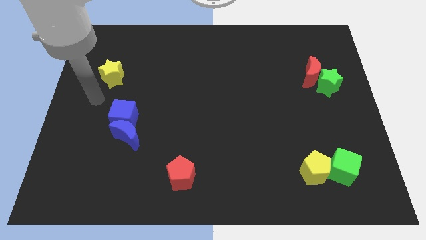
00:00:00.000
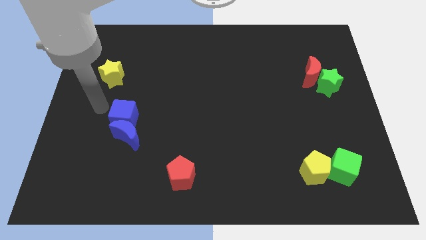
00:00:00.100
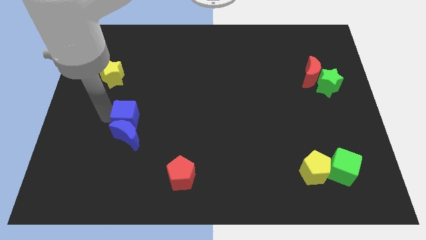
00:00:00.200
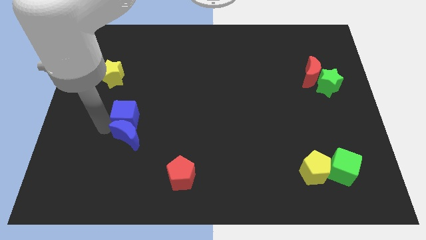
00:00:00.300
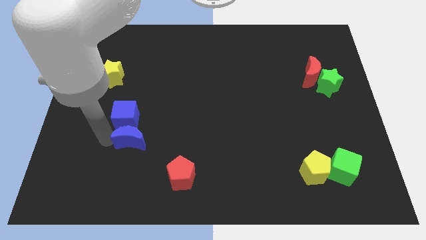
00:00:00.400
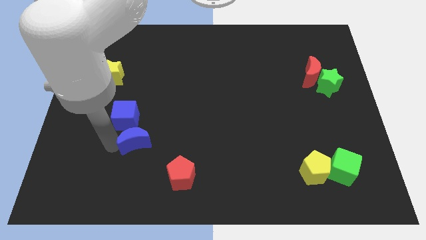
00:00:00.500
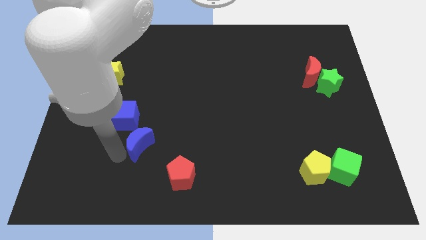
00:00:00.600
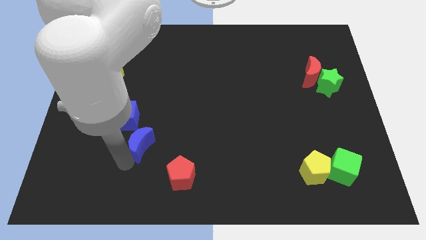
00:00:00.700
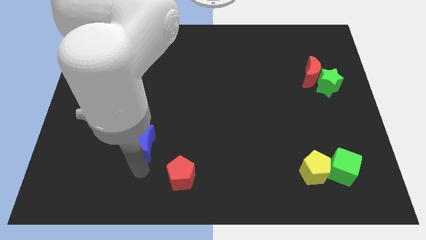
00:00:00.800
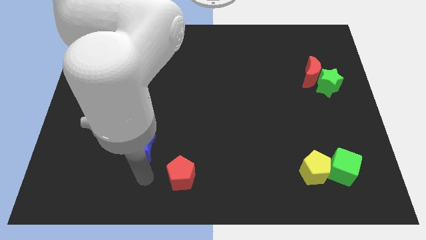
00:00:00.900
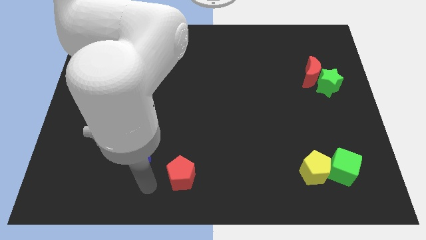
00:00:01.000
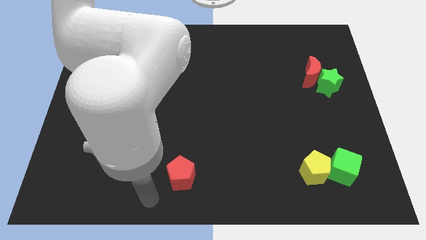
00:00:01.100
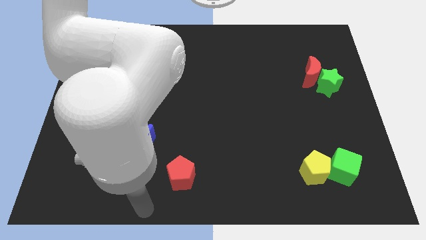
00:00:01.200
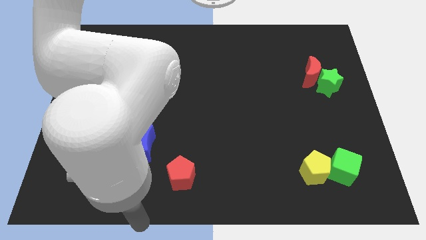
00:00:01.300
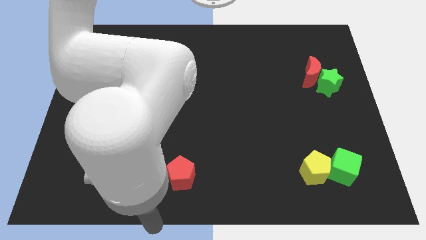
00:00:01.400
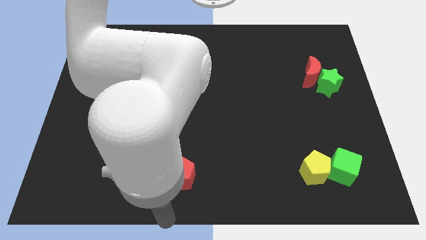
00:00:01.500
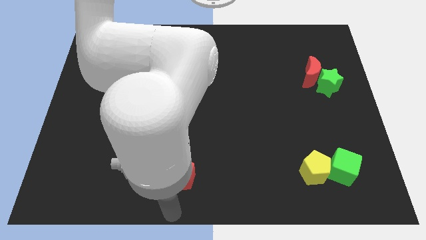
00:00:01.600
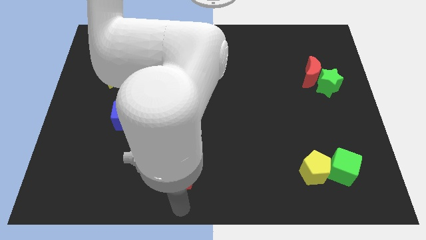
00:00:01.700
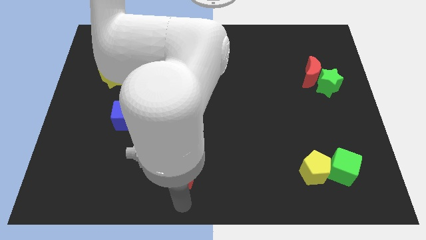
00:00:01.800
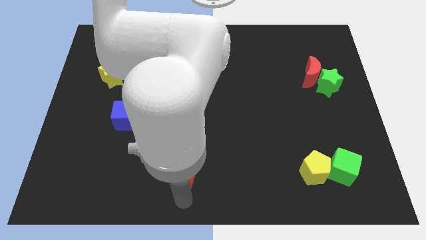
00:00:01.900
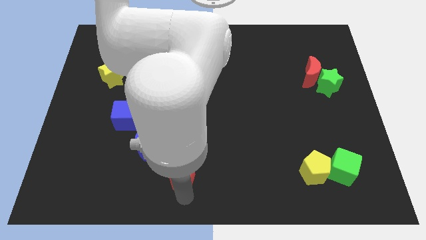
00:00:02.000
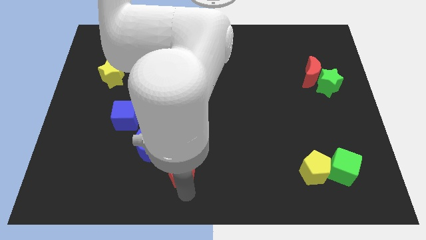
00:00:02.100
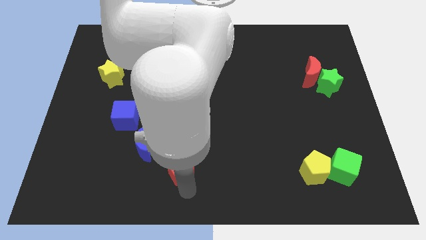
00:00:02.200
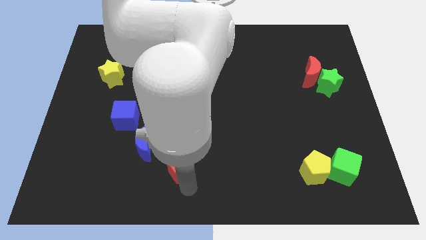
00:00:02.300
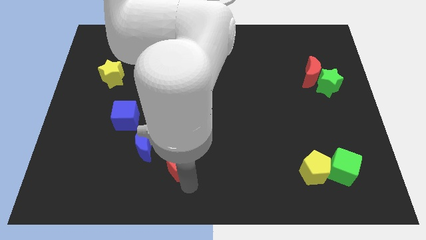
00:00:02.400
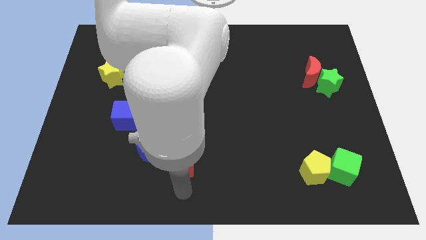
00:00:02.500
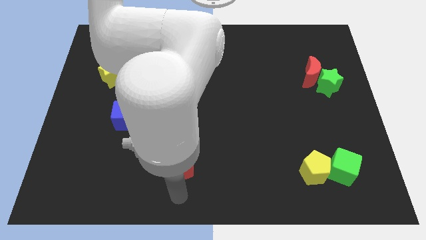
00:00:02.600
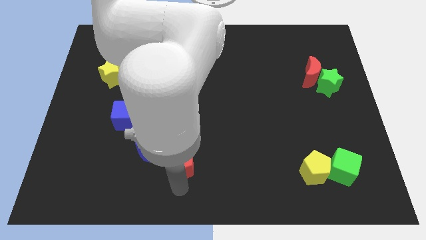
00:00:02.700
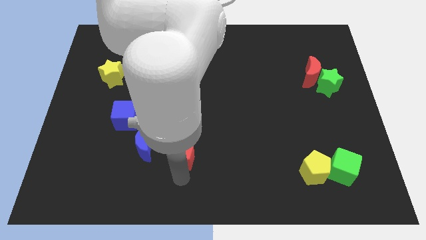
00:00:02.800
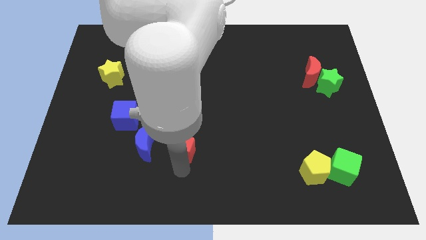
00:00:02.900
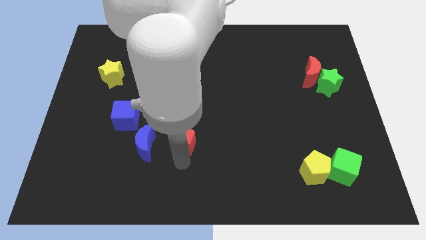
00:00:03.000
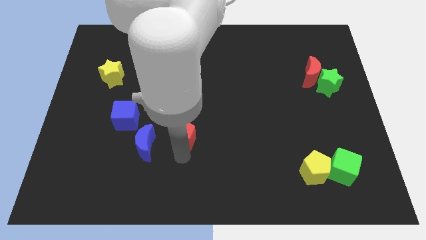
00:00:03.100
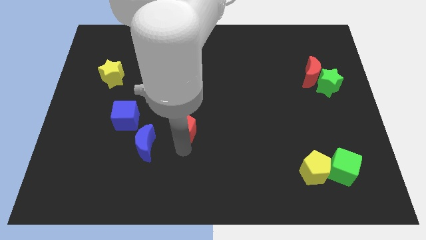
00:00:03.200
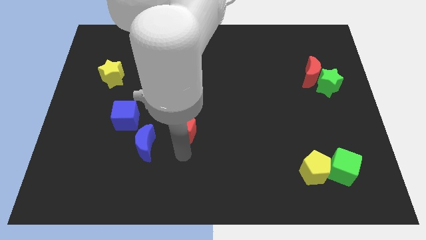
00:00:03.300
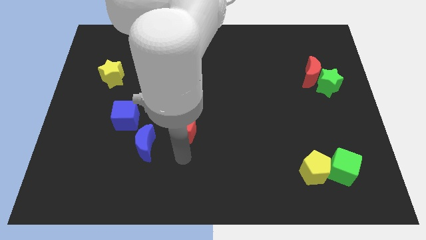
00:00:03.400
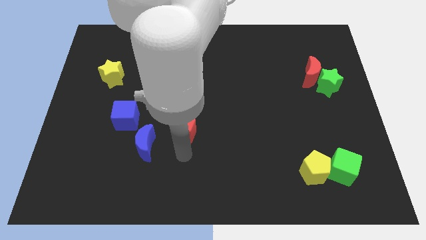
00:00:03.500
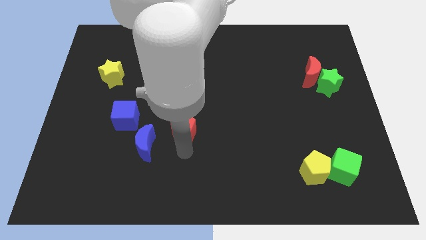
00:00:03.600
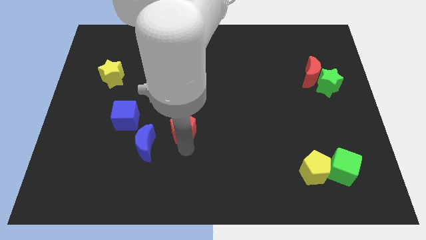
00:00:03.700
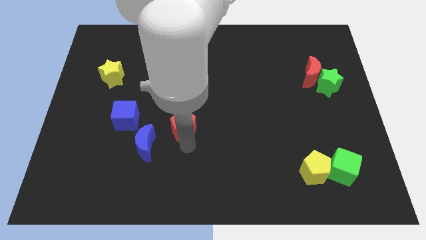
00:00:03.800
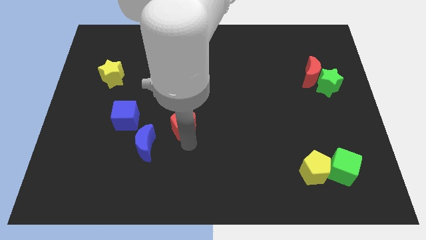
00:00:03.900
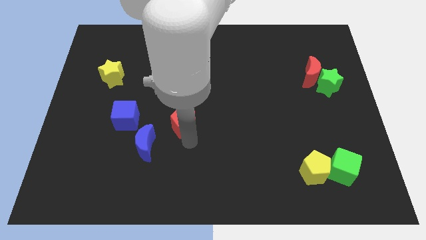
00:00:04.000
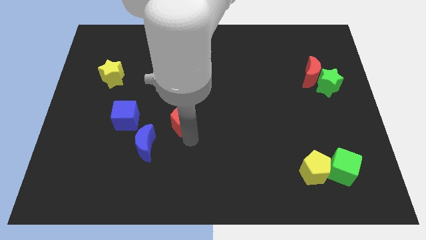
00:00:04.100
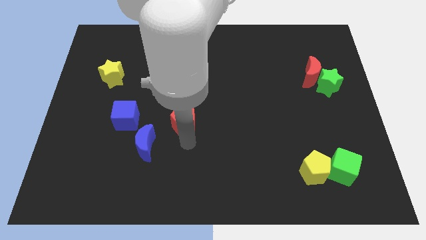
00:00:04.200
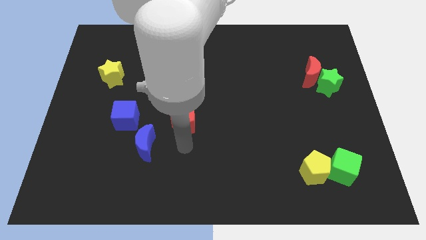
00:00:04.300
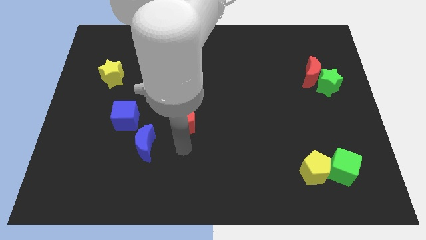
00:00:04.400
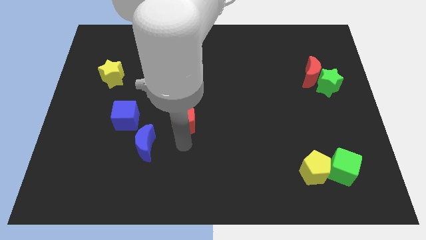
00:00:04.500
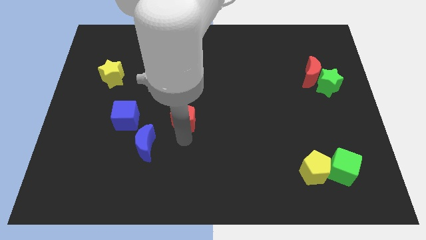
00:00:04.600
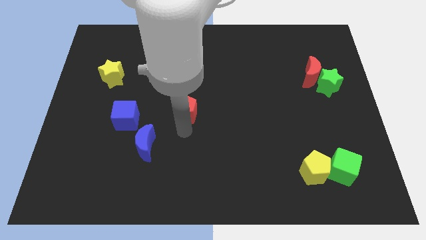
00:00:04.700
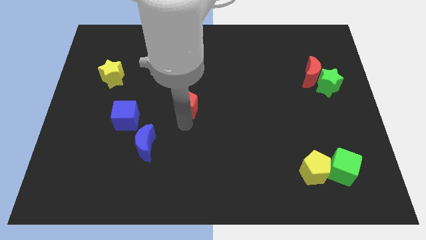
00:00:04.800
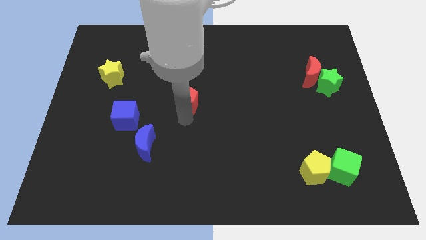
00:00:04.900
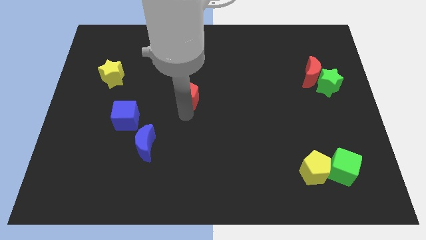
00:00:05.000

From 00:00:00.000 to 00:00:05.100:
push the red pentagon up

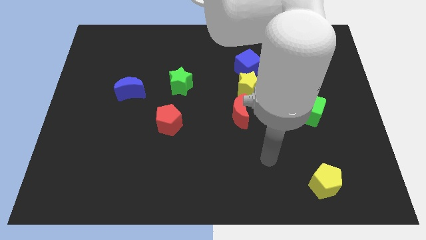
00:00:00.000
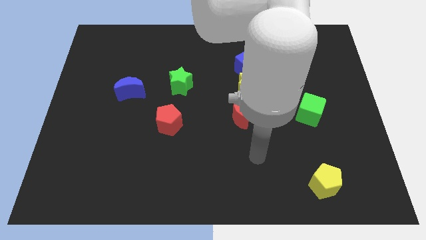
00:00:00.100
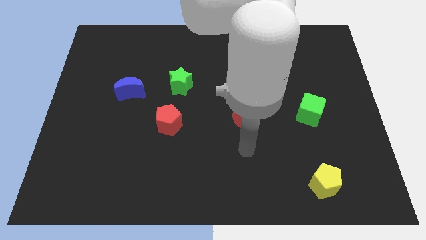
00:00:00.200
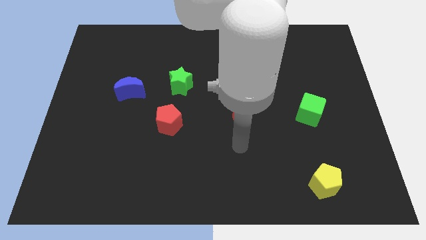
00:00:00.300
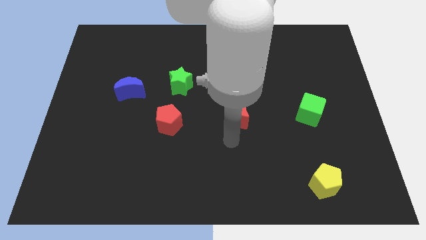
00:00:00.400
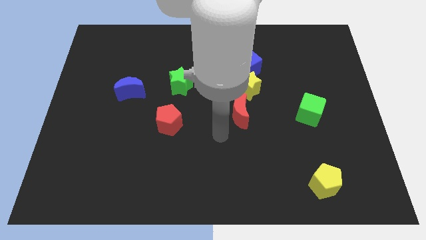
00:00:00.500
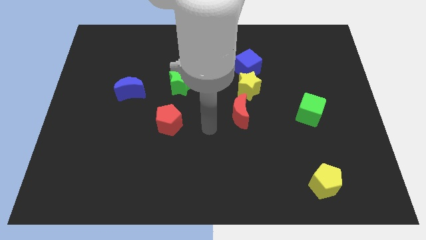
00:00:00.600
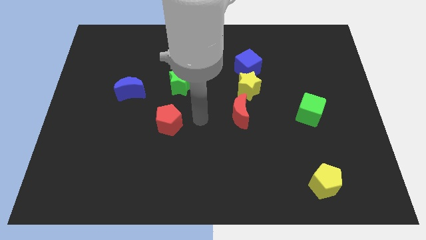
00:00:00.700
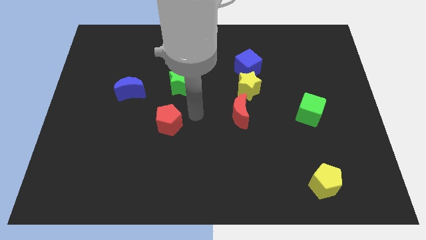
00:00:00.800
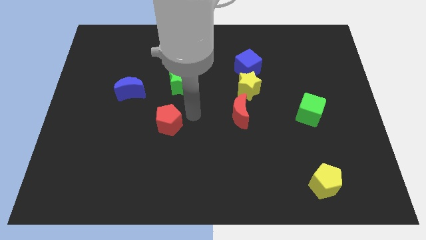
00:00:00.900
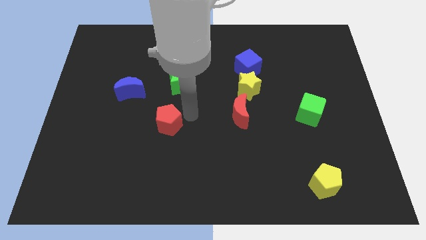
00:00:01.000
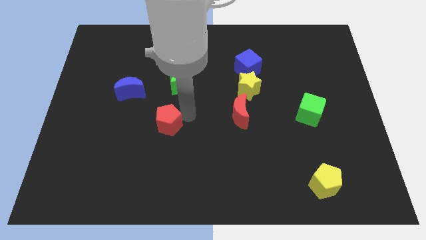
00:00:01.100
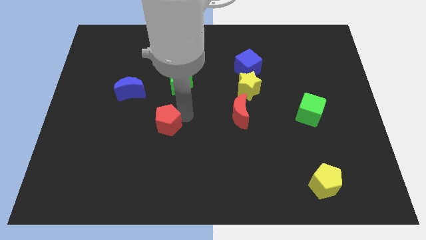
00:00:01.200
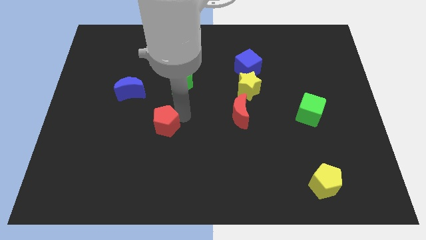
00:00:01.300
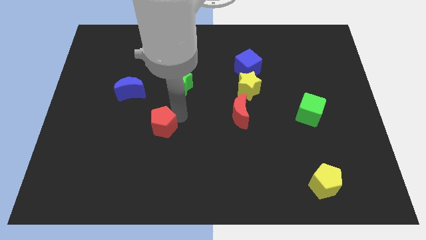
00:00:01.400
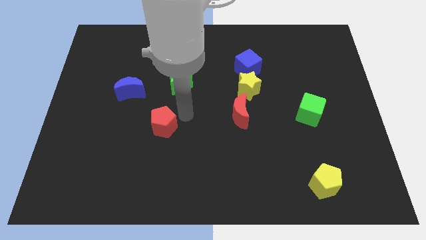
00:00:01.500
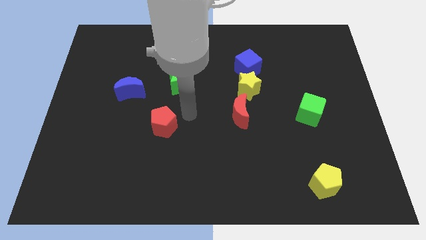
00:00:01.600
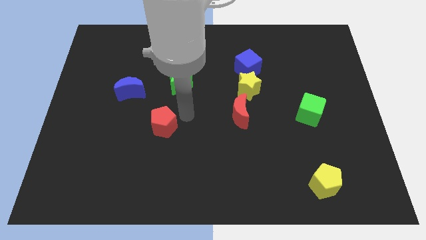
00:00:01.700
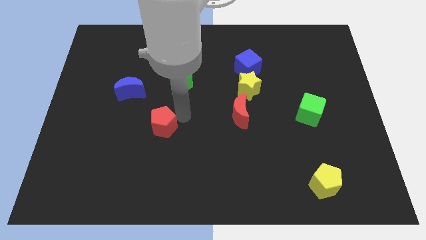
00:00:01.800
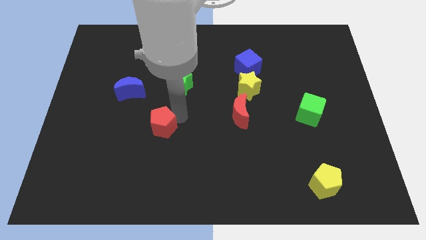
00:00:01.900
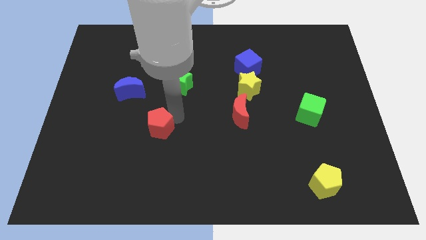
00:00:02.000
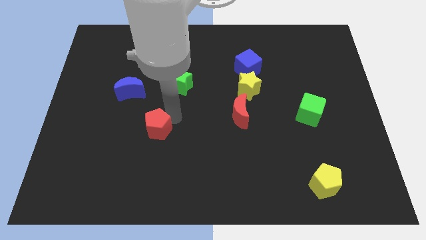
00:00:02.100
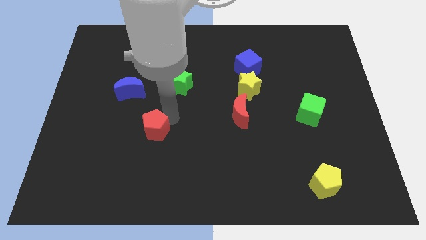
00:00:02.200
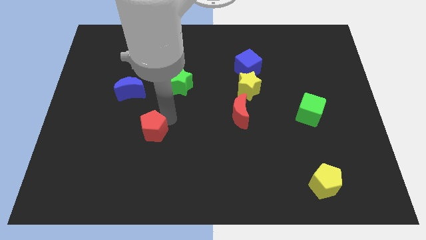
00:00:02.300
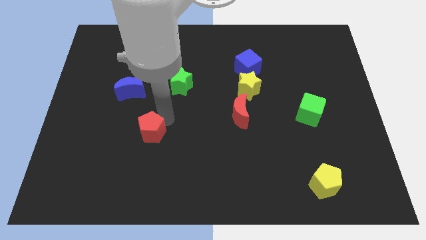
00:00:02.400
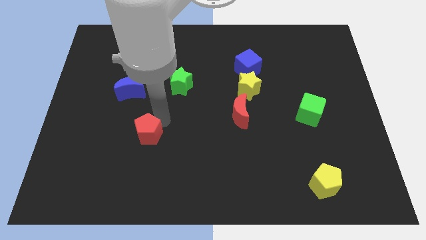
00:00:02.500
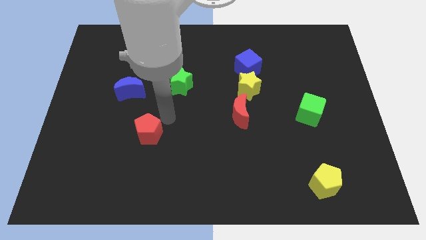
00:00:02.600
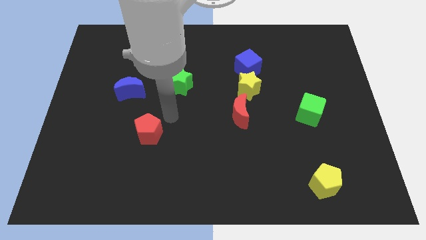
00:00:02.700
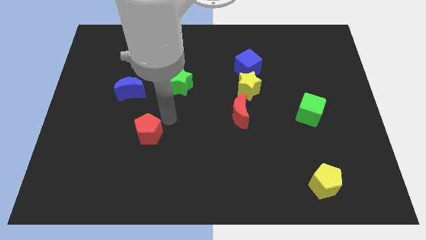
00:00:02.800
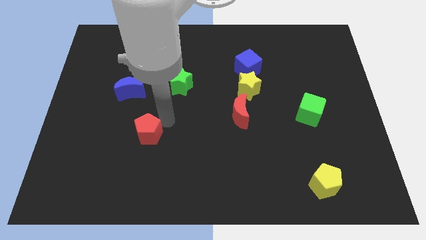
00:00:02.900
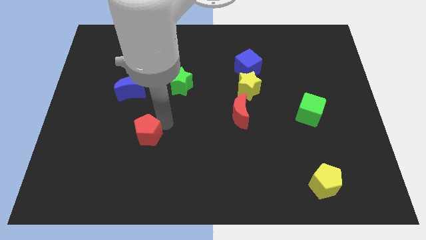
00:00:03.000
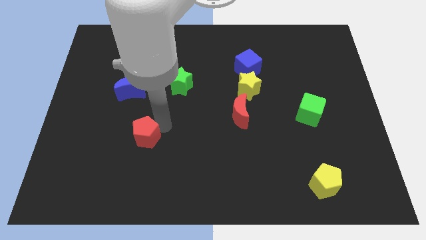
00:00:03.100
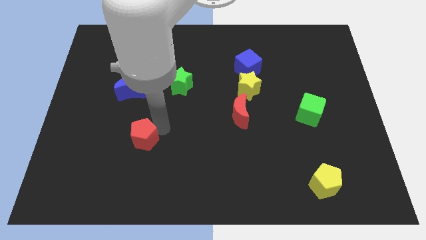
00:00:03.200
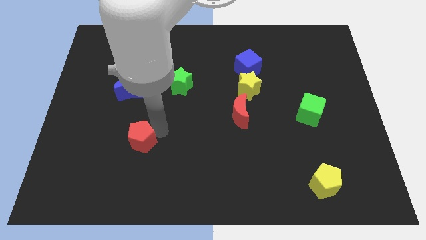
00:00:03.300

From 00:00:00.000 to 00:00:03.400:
move the red pentagon down and left a little
